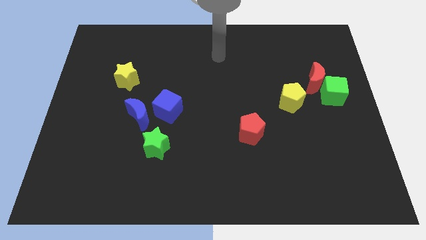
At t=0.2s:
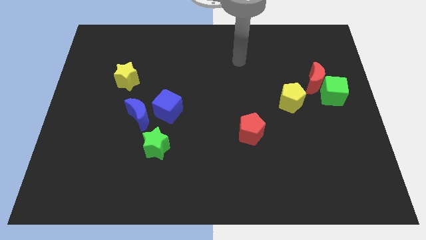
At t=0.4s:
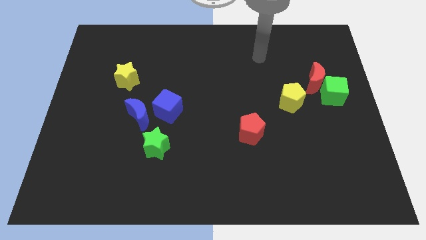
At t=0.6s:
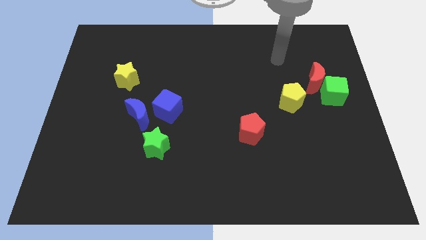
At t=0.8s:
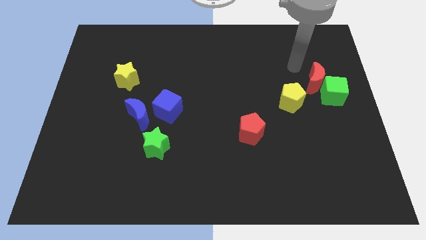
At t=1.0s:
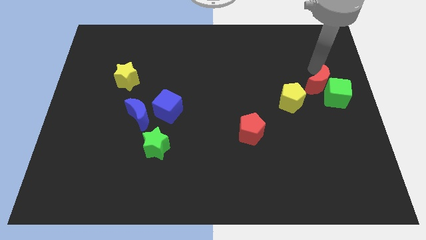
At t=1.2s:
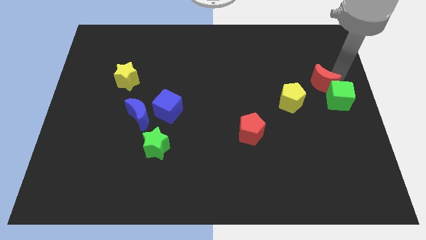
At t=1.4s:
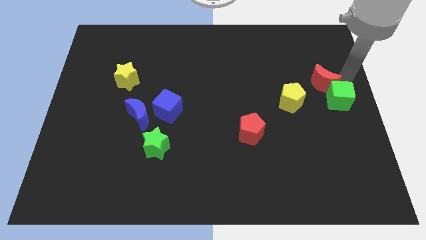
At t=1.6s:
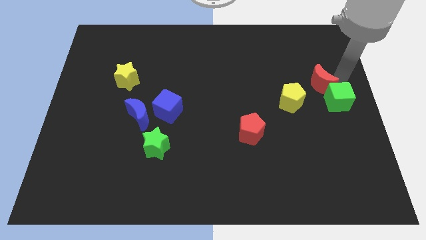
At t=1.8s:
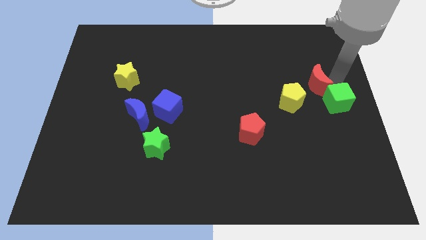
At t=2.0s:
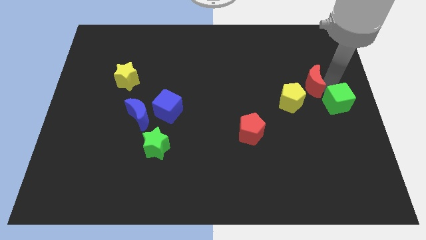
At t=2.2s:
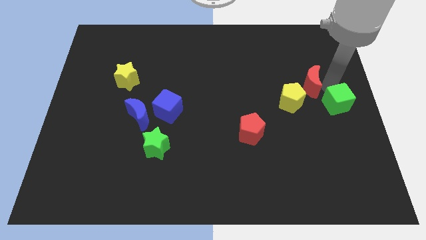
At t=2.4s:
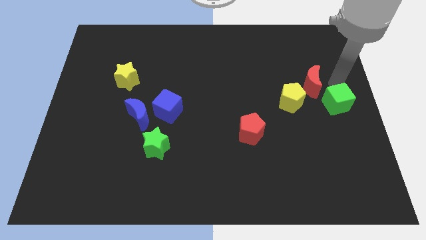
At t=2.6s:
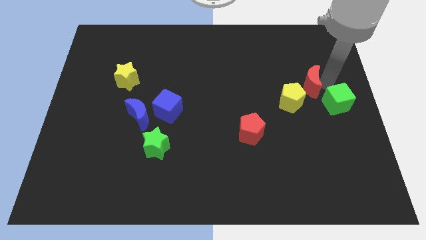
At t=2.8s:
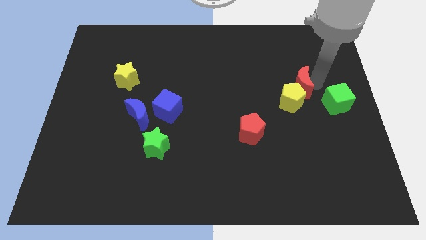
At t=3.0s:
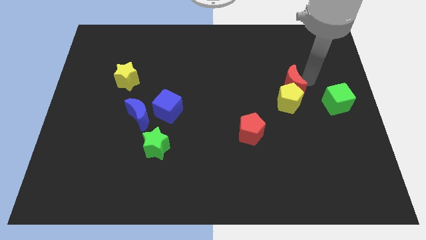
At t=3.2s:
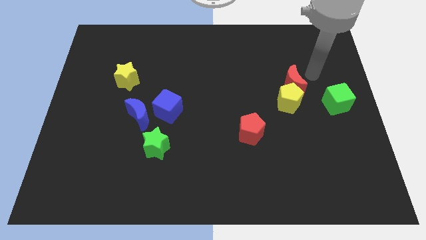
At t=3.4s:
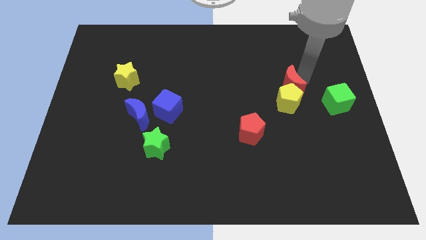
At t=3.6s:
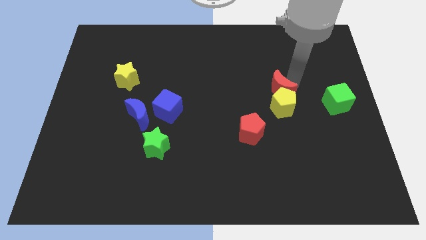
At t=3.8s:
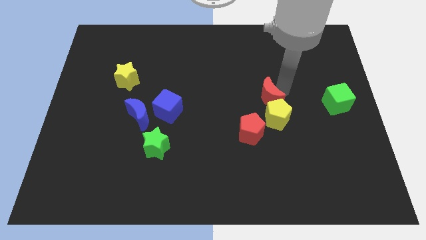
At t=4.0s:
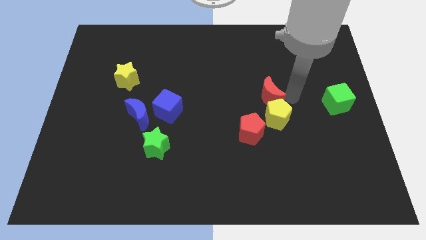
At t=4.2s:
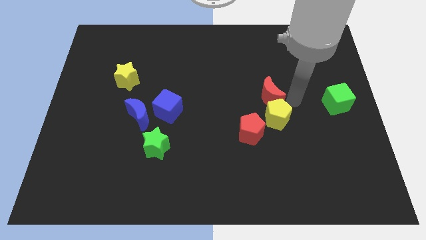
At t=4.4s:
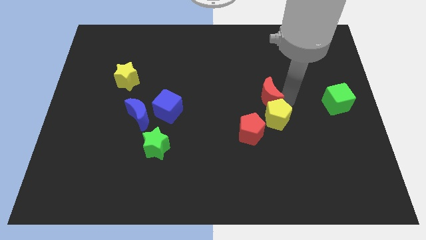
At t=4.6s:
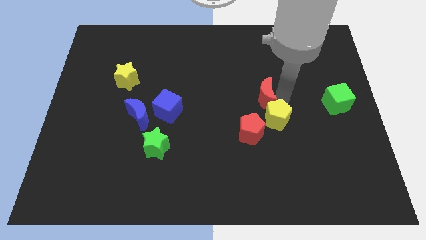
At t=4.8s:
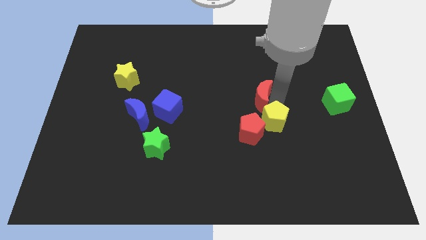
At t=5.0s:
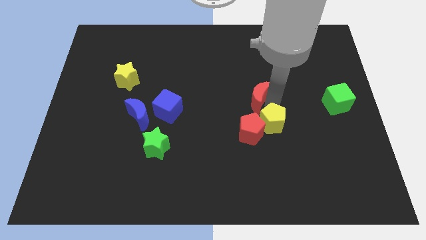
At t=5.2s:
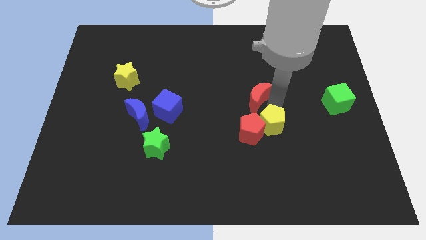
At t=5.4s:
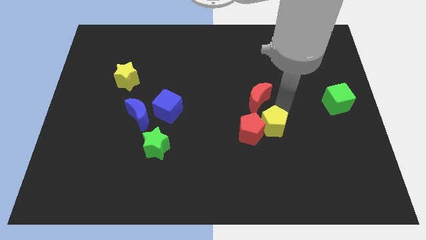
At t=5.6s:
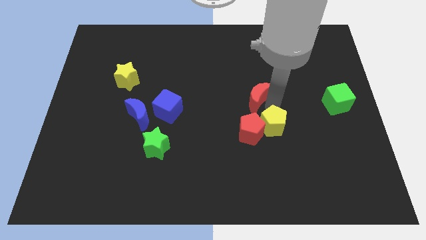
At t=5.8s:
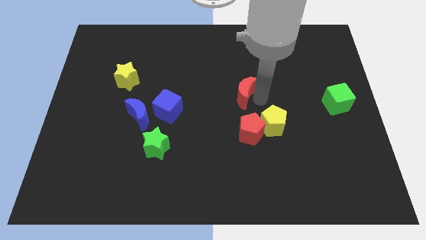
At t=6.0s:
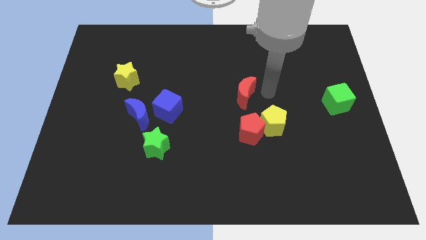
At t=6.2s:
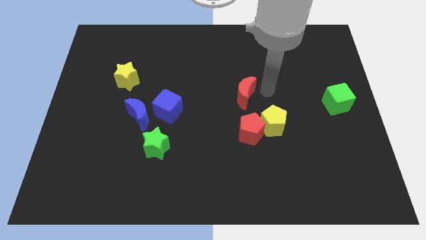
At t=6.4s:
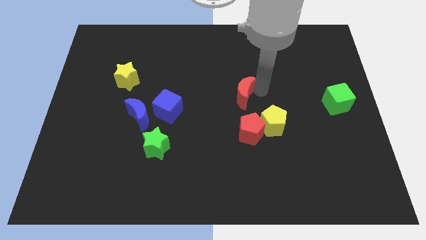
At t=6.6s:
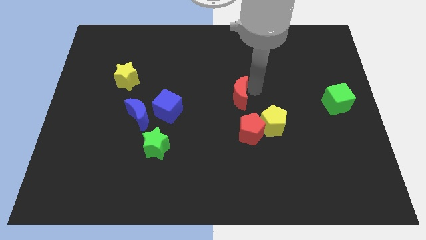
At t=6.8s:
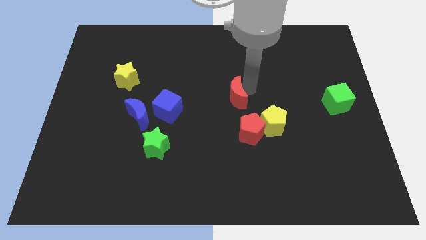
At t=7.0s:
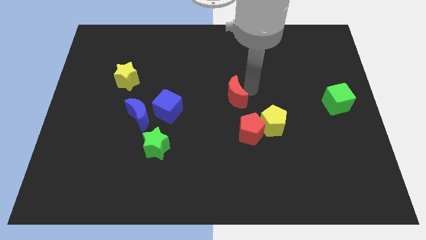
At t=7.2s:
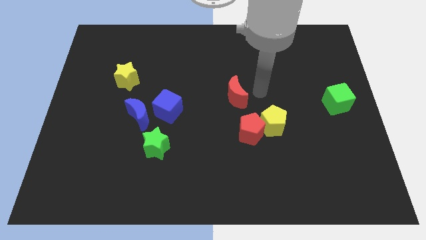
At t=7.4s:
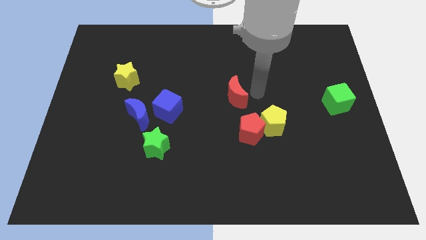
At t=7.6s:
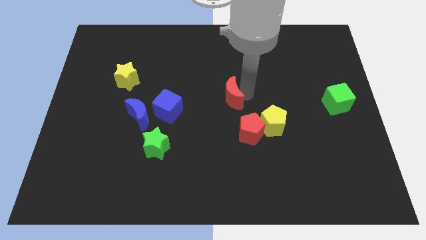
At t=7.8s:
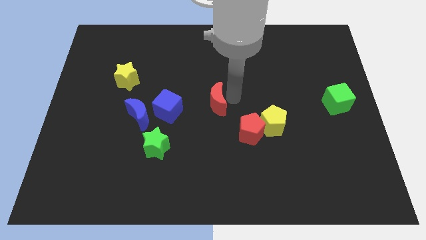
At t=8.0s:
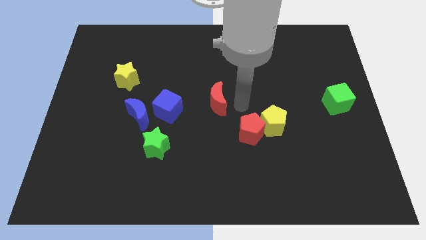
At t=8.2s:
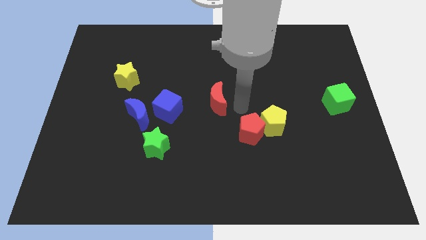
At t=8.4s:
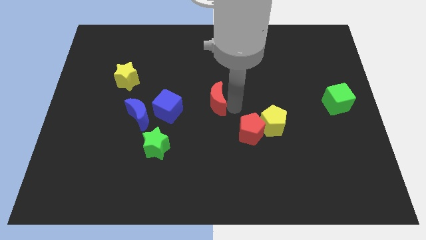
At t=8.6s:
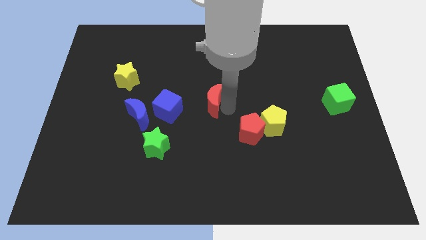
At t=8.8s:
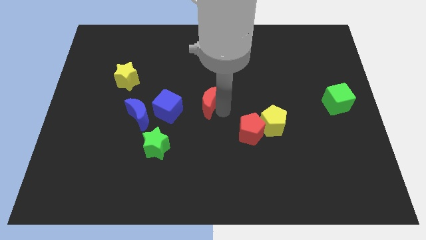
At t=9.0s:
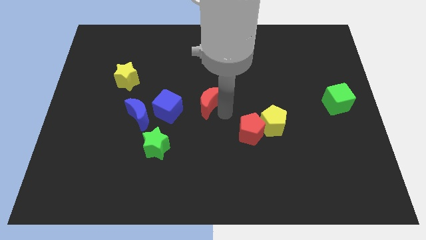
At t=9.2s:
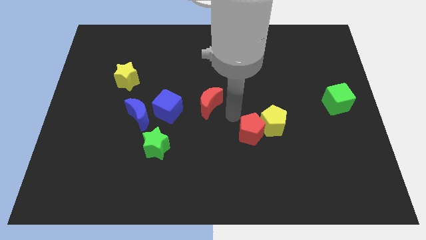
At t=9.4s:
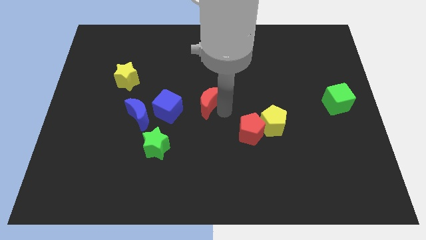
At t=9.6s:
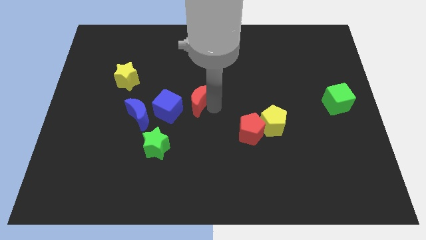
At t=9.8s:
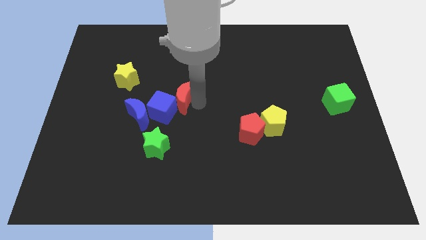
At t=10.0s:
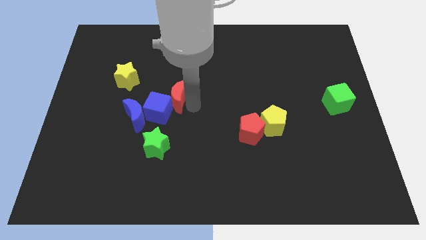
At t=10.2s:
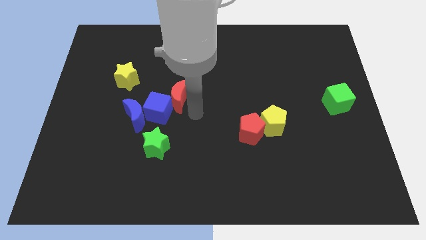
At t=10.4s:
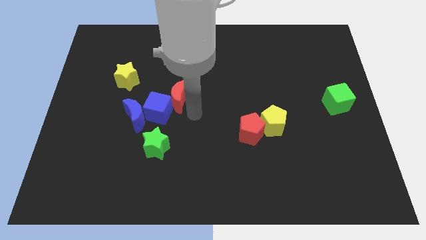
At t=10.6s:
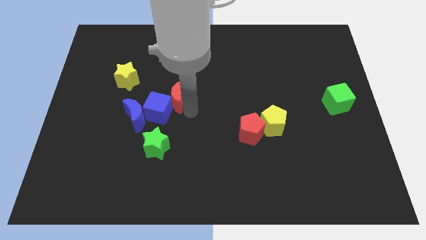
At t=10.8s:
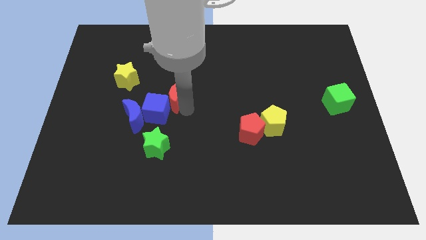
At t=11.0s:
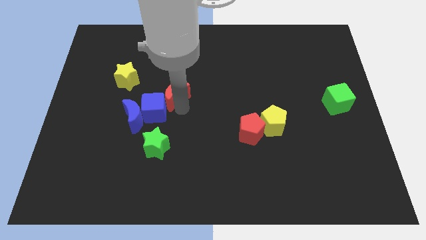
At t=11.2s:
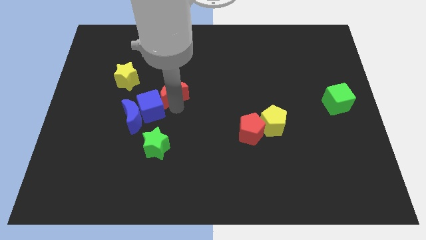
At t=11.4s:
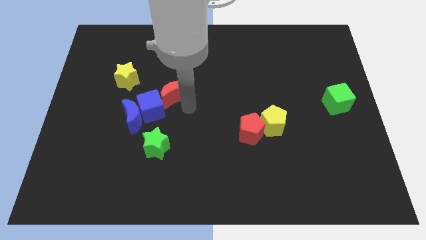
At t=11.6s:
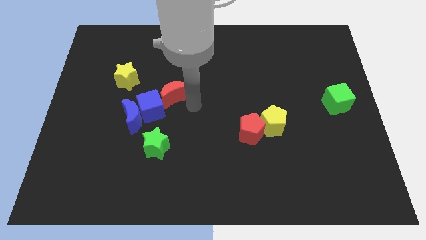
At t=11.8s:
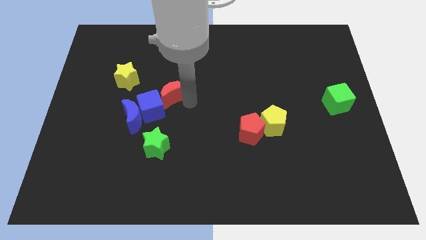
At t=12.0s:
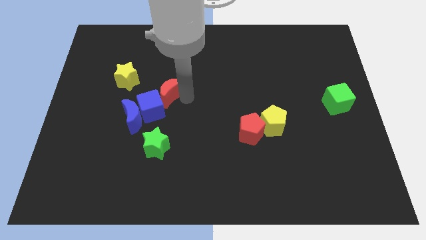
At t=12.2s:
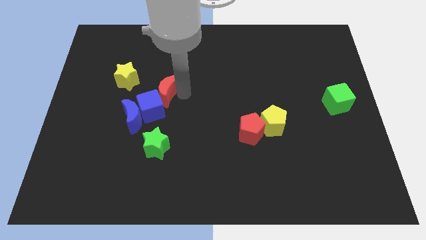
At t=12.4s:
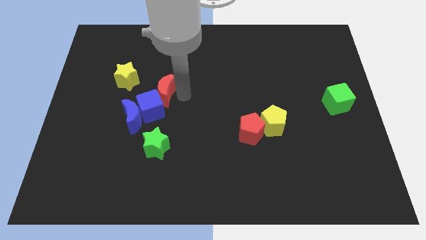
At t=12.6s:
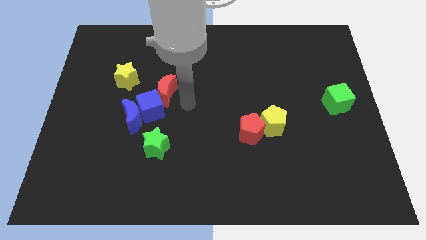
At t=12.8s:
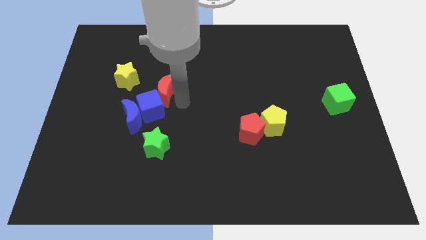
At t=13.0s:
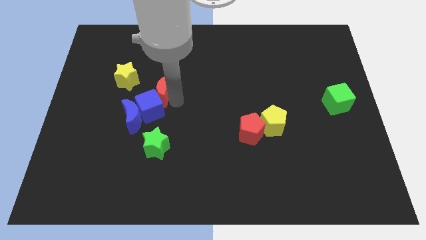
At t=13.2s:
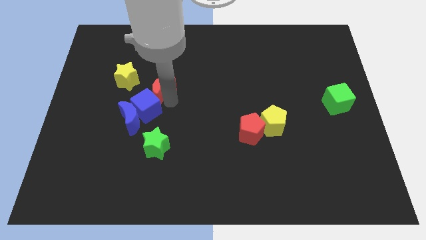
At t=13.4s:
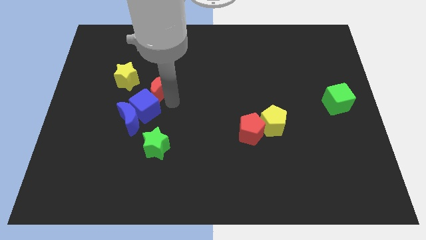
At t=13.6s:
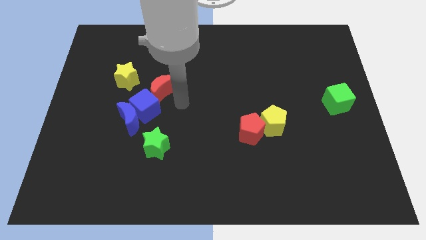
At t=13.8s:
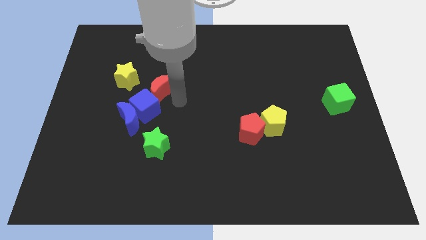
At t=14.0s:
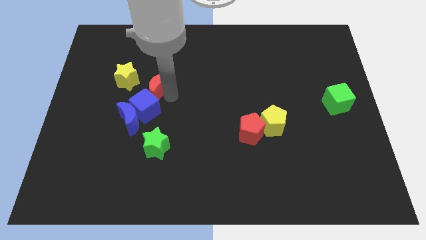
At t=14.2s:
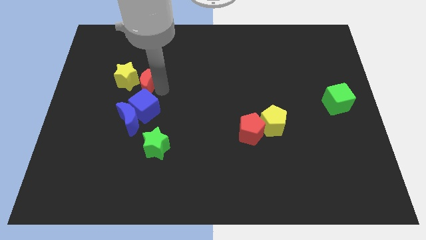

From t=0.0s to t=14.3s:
move the red moon next to the yellow star
